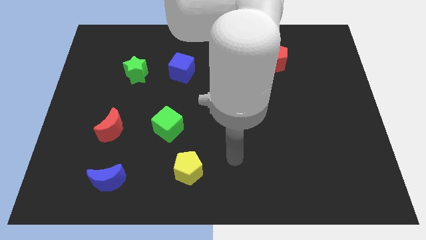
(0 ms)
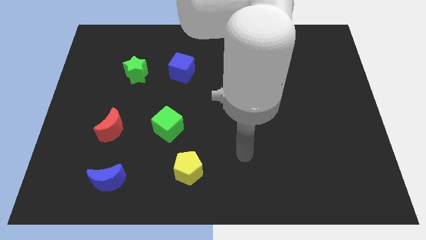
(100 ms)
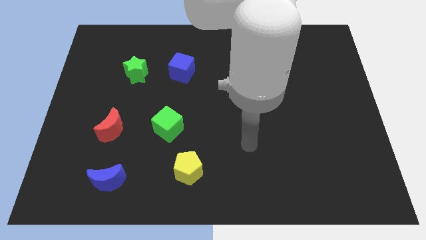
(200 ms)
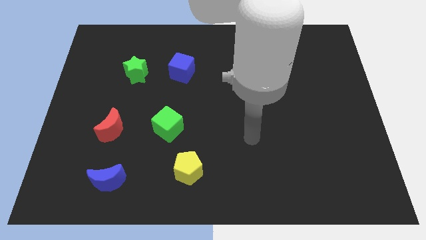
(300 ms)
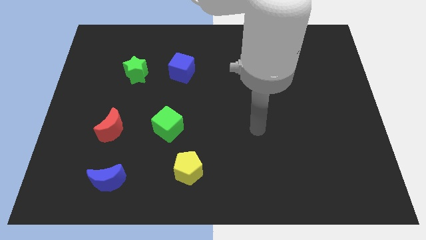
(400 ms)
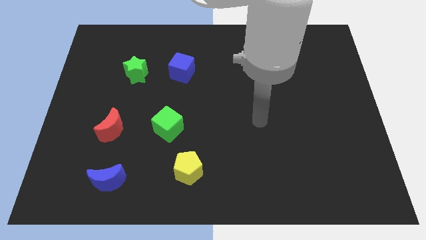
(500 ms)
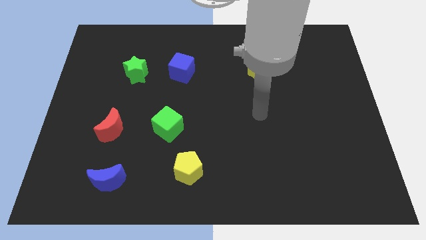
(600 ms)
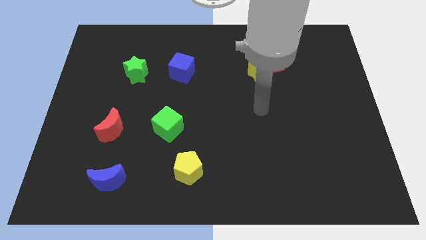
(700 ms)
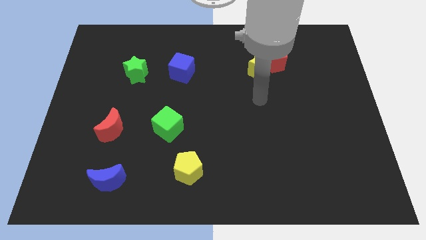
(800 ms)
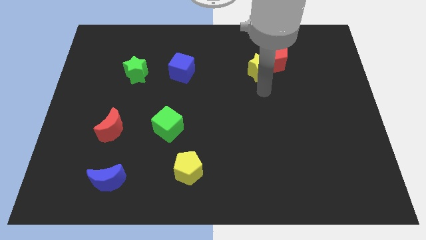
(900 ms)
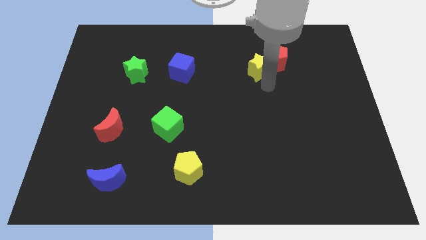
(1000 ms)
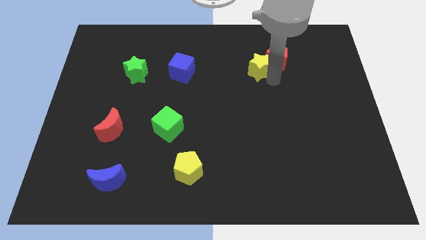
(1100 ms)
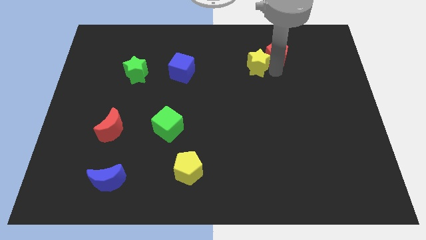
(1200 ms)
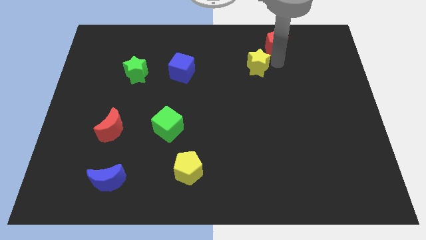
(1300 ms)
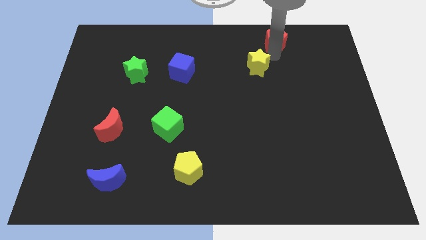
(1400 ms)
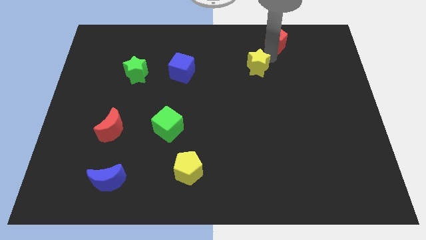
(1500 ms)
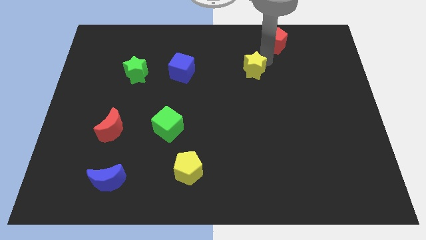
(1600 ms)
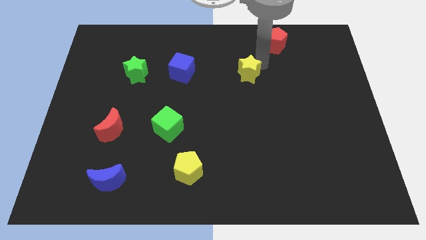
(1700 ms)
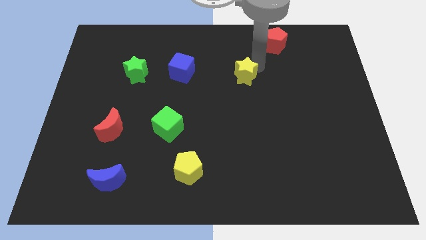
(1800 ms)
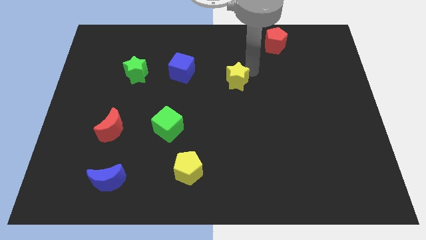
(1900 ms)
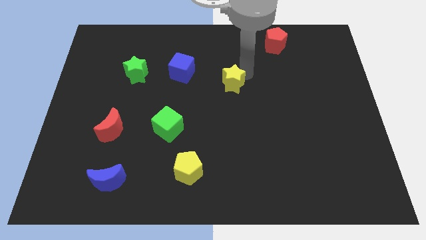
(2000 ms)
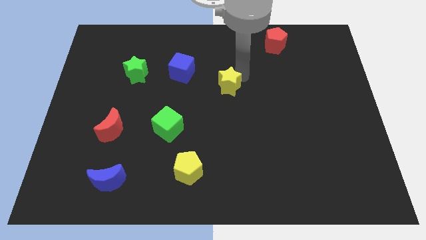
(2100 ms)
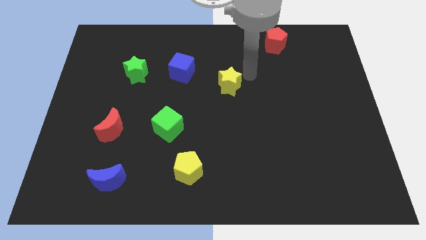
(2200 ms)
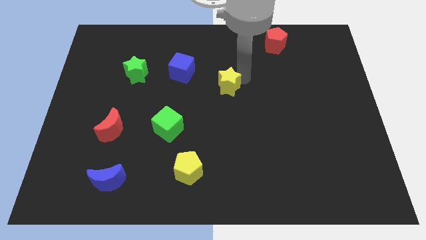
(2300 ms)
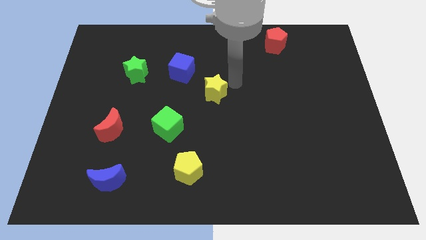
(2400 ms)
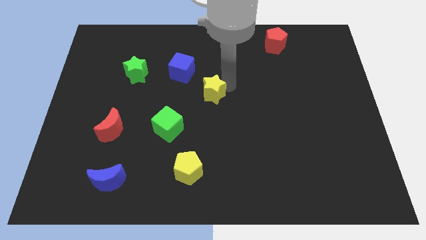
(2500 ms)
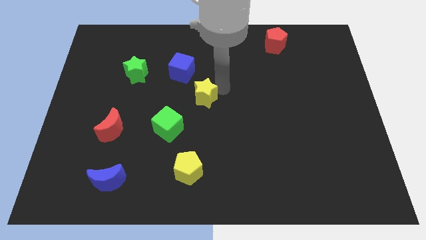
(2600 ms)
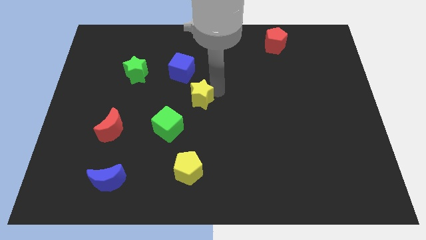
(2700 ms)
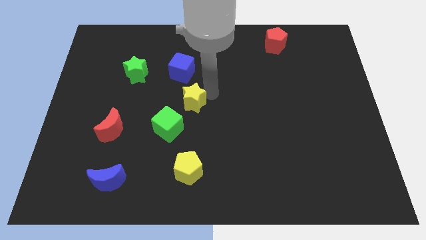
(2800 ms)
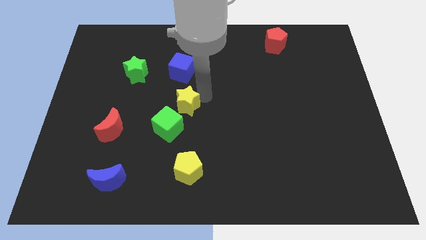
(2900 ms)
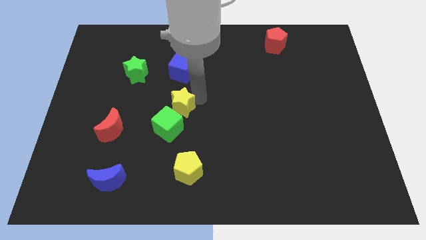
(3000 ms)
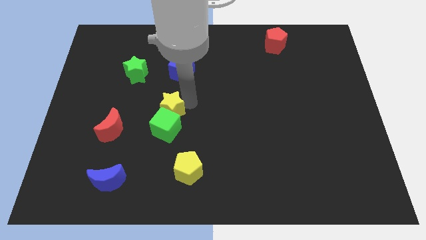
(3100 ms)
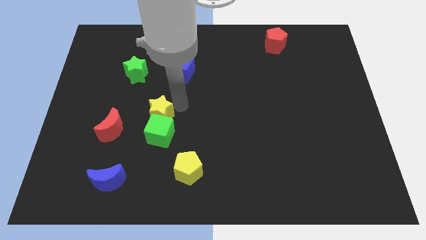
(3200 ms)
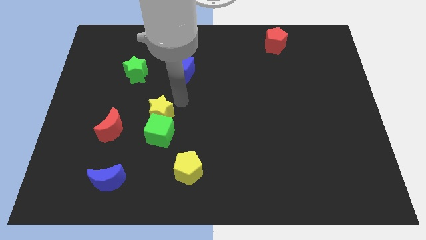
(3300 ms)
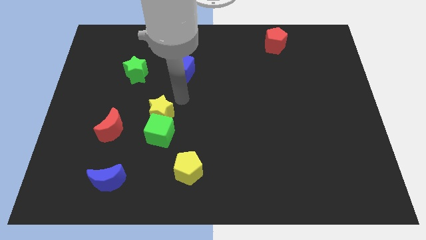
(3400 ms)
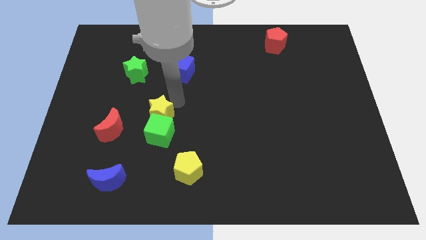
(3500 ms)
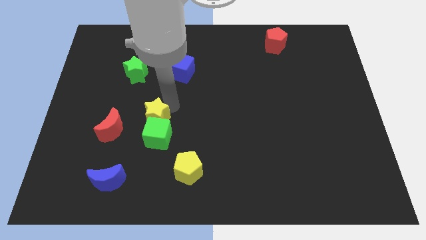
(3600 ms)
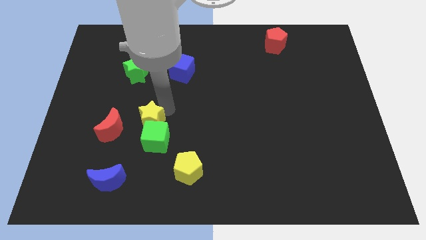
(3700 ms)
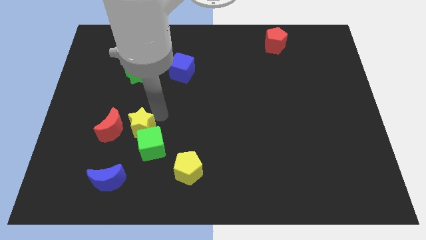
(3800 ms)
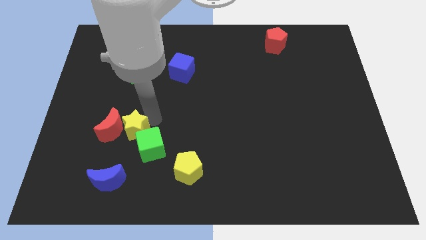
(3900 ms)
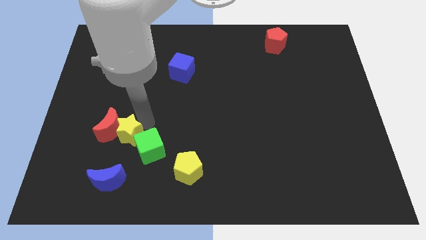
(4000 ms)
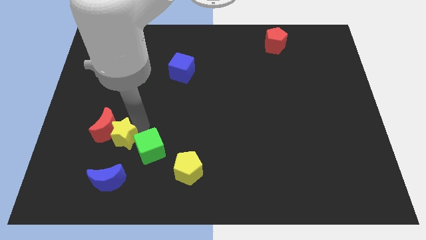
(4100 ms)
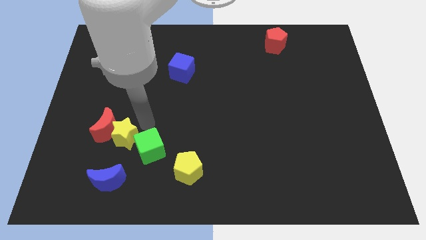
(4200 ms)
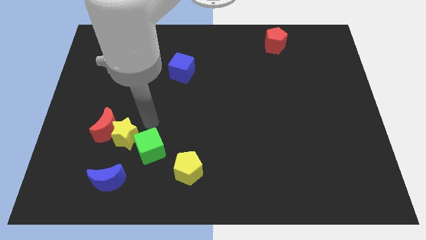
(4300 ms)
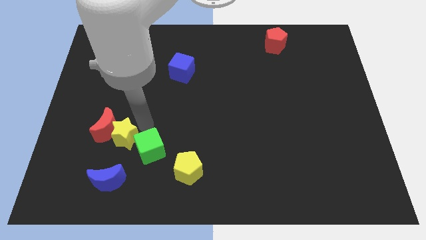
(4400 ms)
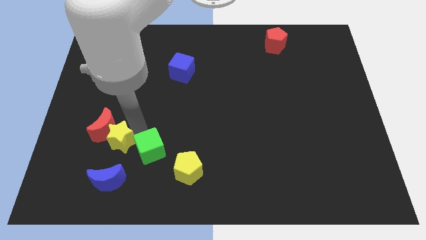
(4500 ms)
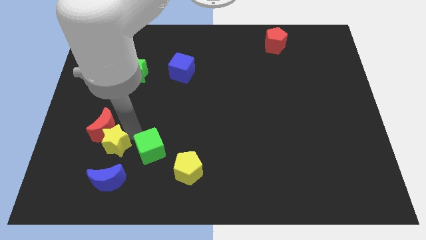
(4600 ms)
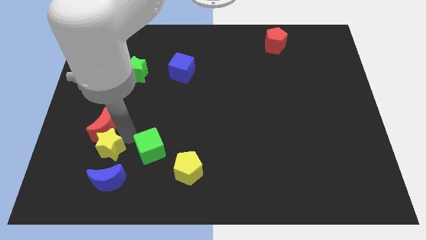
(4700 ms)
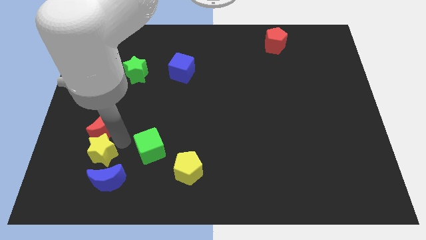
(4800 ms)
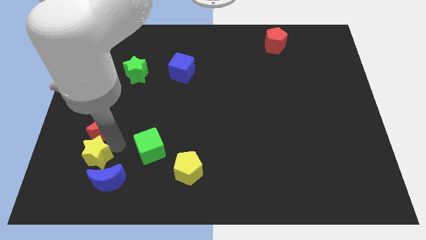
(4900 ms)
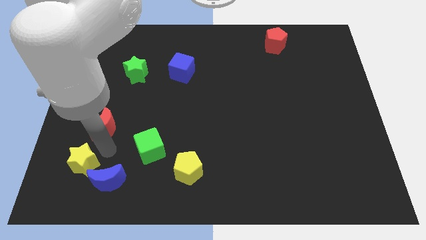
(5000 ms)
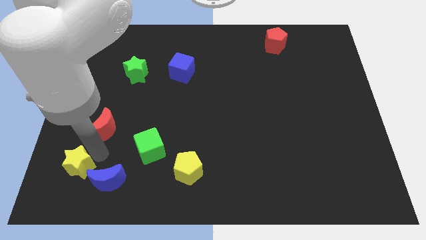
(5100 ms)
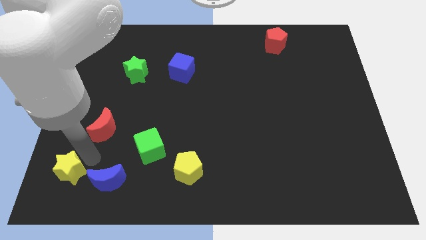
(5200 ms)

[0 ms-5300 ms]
slide the yellow star to the bottom left of the board
